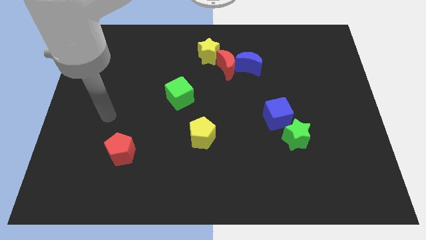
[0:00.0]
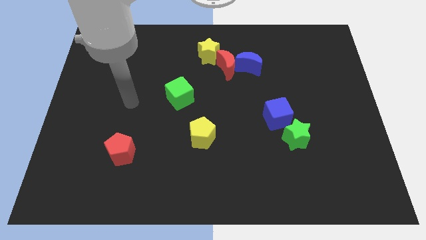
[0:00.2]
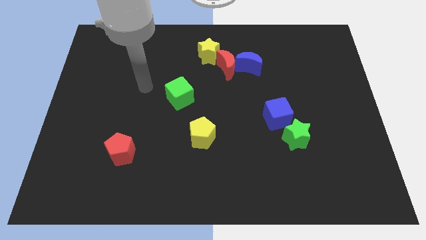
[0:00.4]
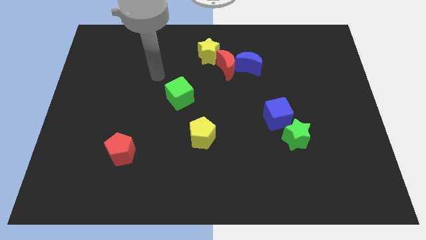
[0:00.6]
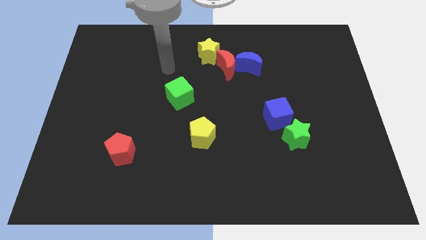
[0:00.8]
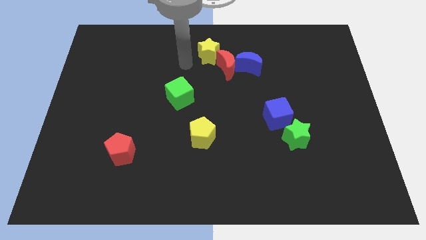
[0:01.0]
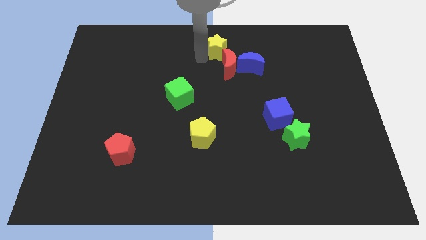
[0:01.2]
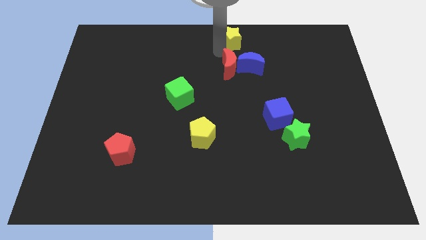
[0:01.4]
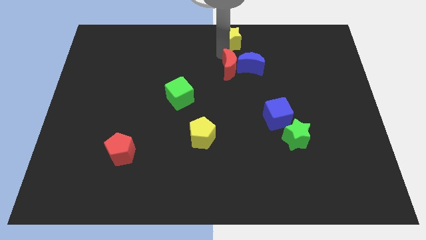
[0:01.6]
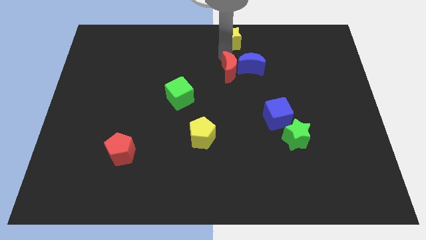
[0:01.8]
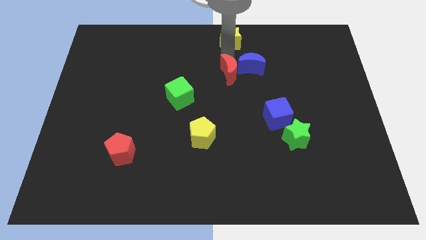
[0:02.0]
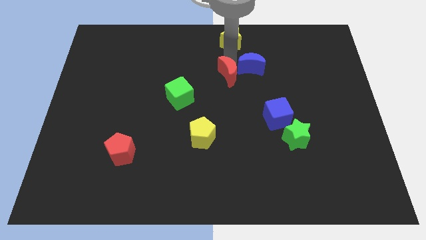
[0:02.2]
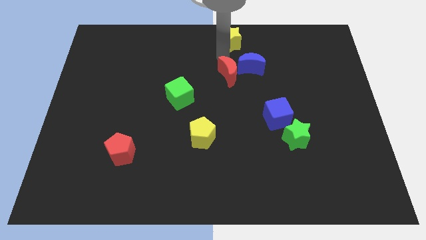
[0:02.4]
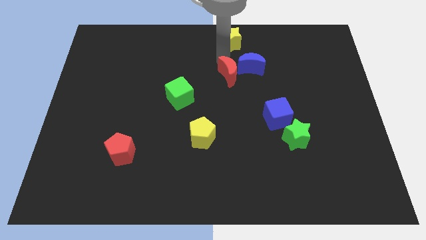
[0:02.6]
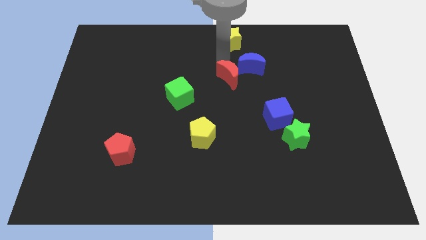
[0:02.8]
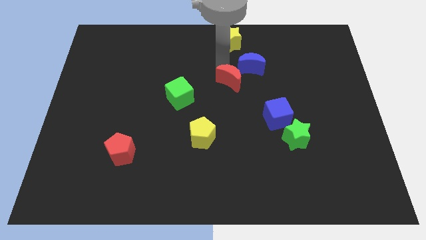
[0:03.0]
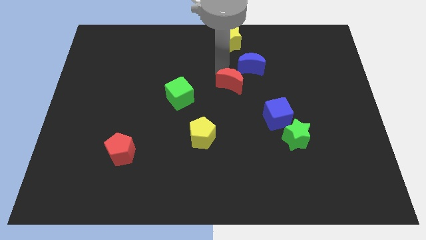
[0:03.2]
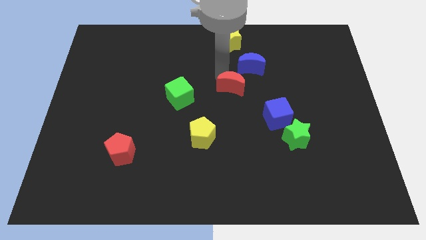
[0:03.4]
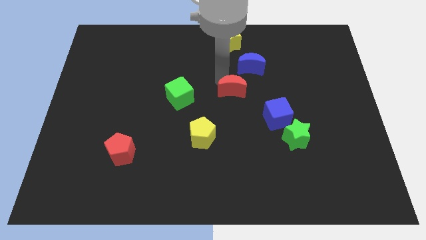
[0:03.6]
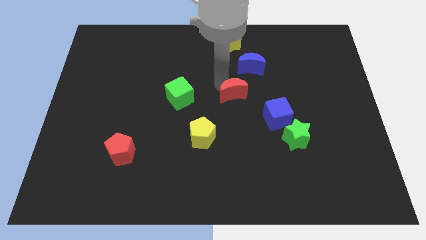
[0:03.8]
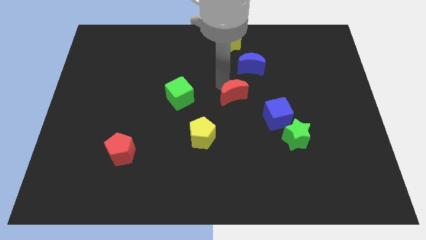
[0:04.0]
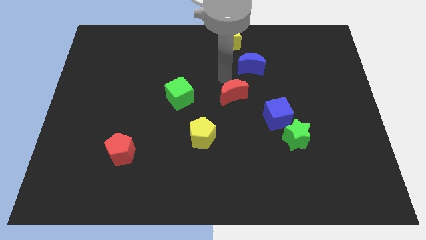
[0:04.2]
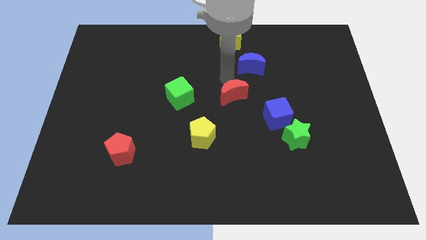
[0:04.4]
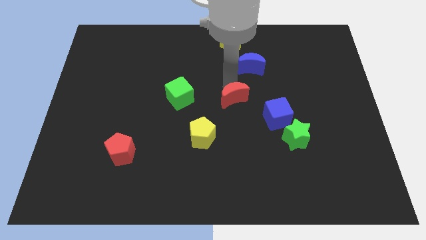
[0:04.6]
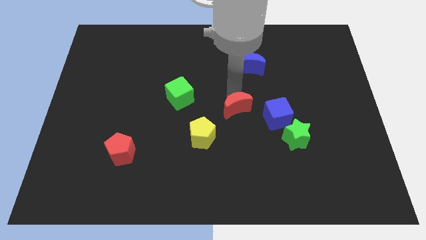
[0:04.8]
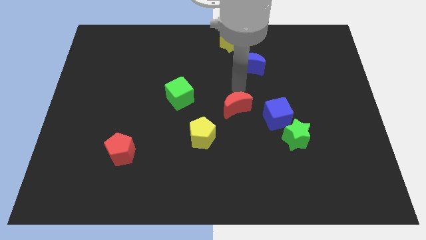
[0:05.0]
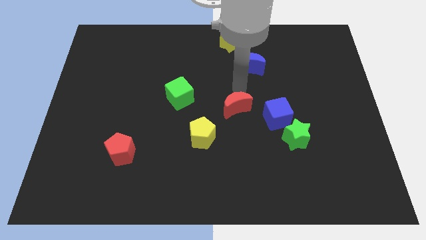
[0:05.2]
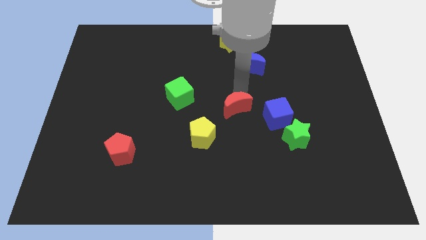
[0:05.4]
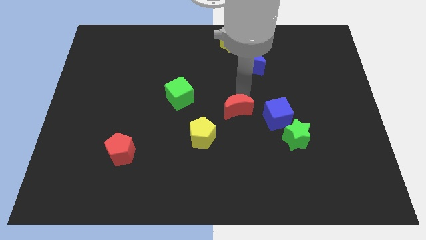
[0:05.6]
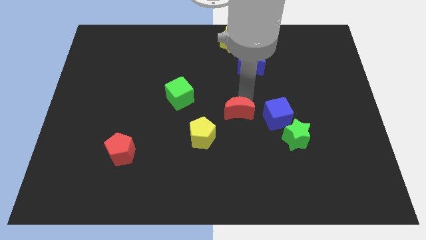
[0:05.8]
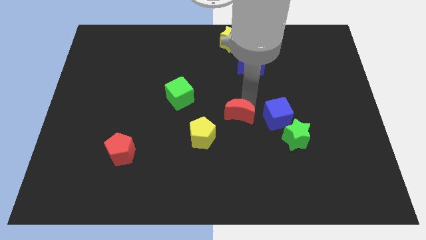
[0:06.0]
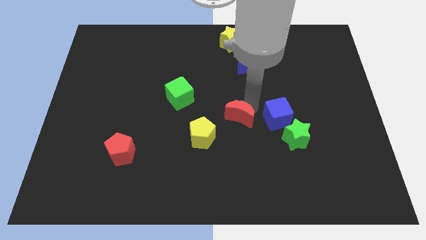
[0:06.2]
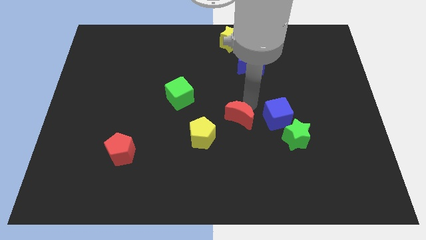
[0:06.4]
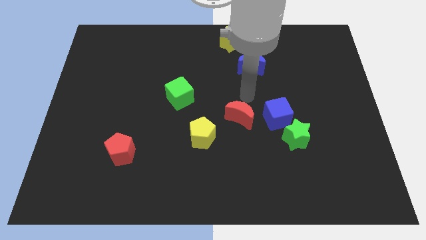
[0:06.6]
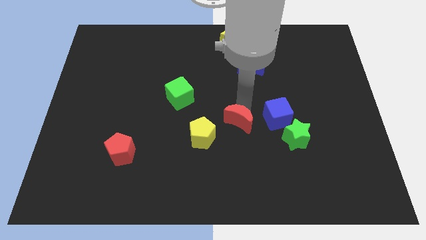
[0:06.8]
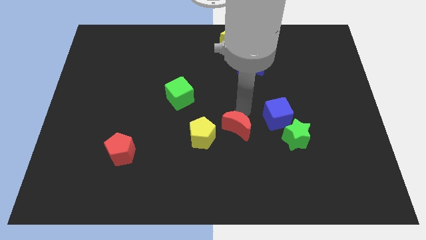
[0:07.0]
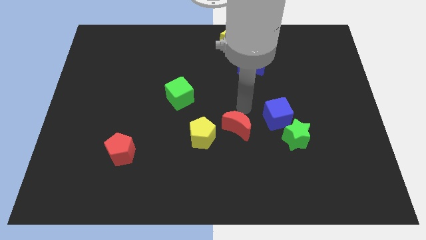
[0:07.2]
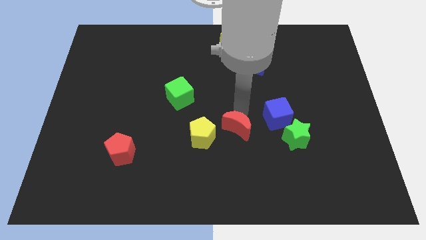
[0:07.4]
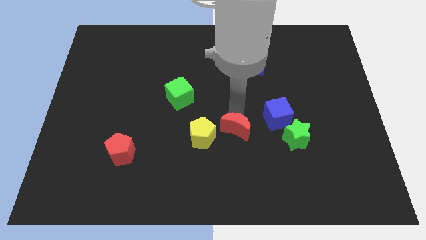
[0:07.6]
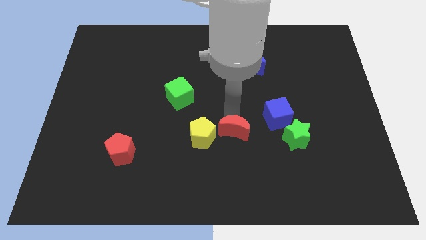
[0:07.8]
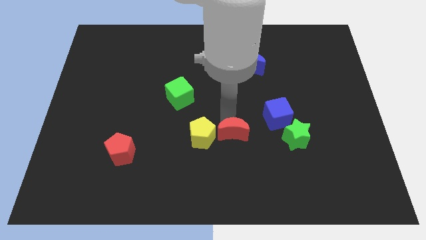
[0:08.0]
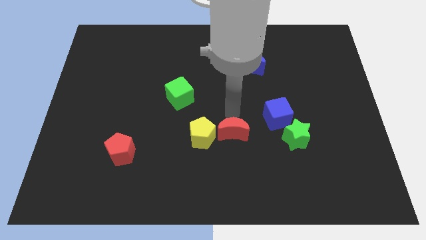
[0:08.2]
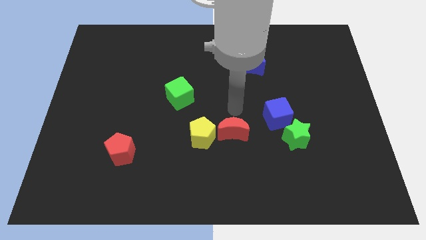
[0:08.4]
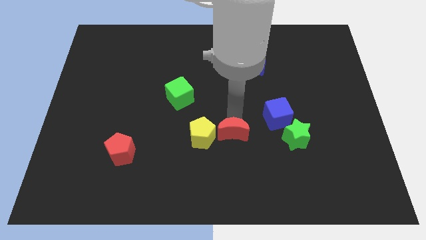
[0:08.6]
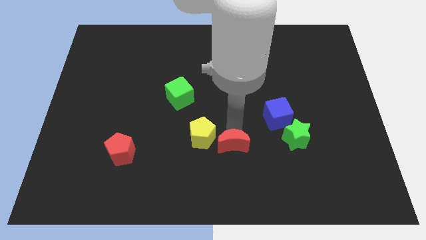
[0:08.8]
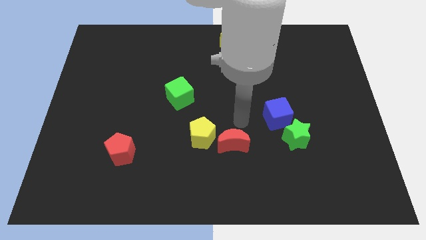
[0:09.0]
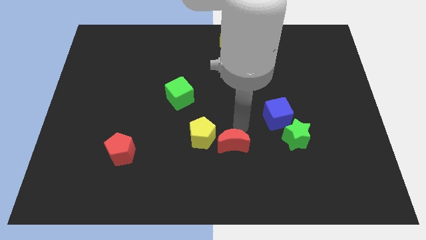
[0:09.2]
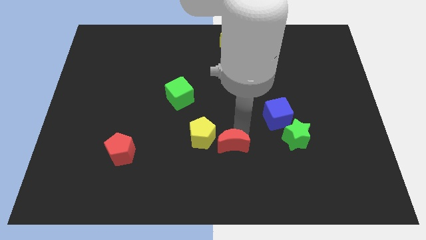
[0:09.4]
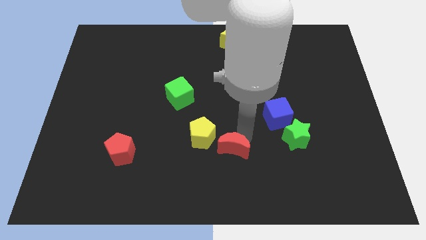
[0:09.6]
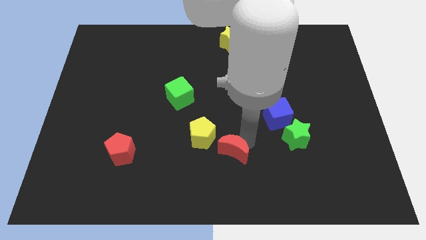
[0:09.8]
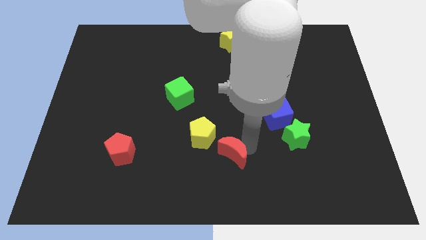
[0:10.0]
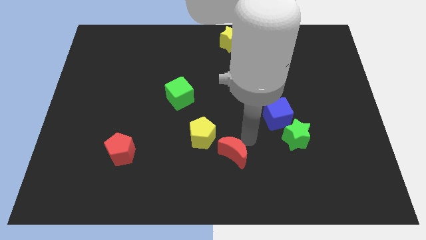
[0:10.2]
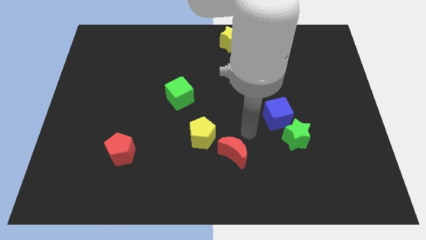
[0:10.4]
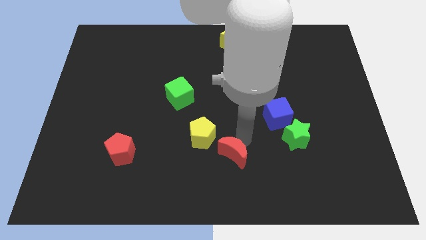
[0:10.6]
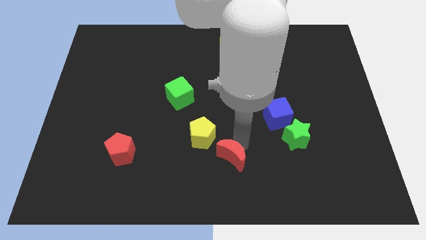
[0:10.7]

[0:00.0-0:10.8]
push the red moon to the bottom

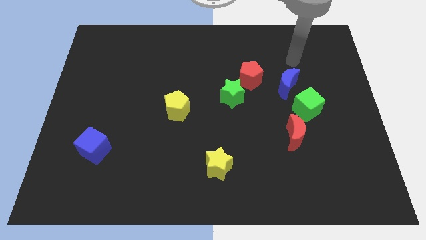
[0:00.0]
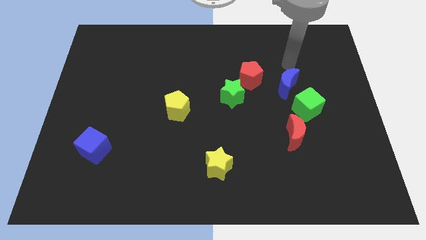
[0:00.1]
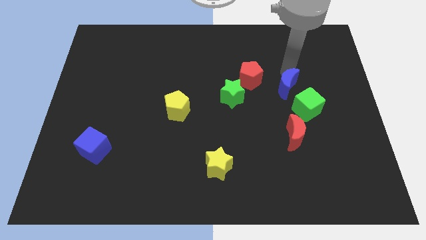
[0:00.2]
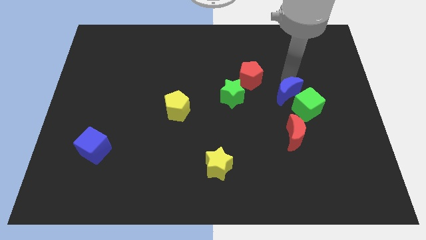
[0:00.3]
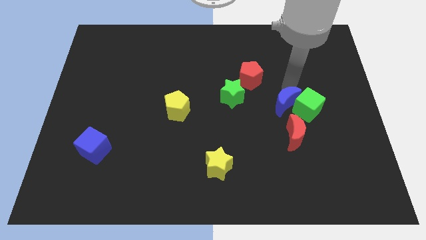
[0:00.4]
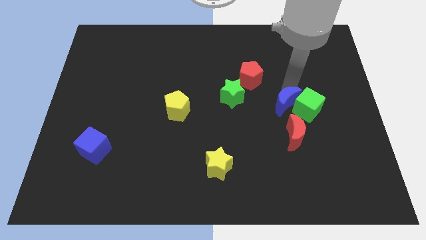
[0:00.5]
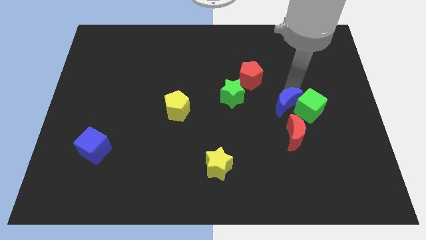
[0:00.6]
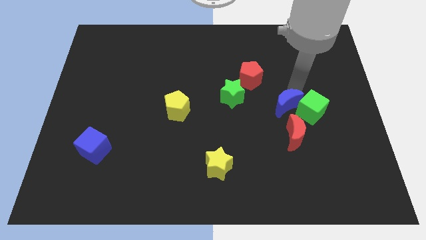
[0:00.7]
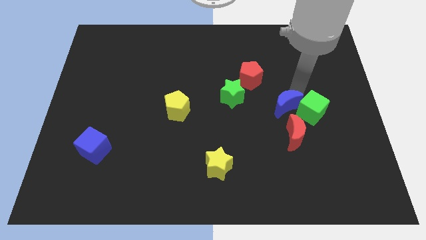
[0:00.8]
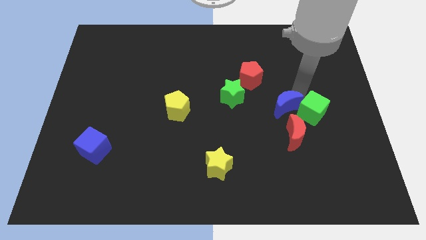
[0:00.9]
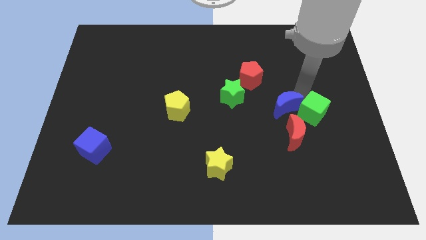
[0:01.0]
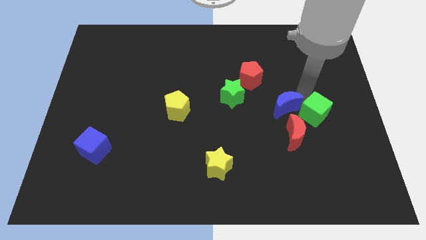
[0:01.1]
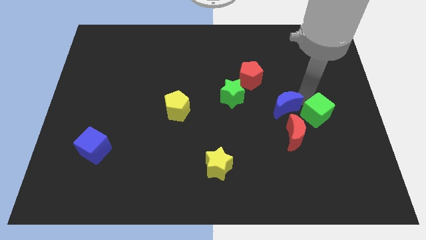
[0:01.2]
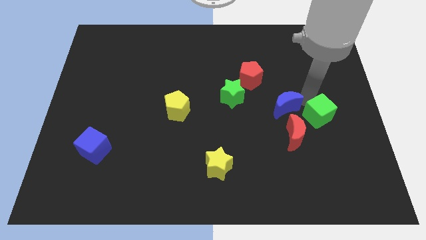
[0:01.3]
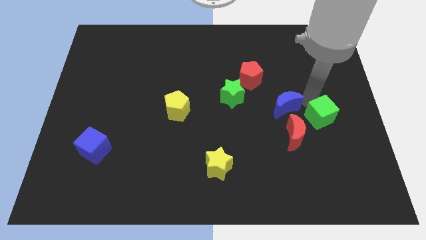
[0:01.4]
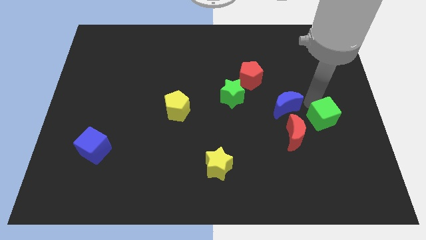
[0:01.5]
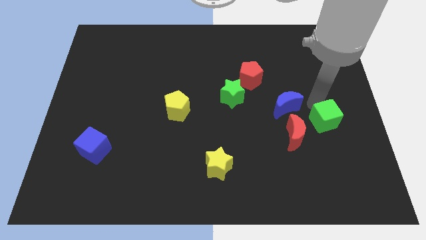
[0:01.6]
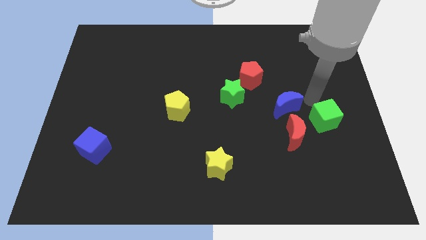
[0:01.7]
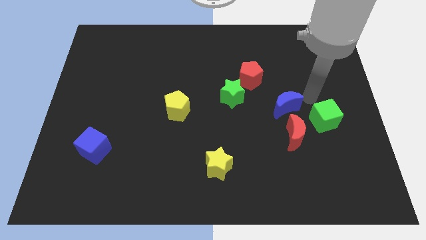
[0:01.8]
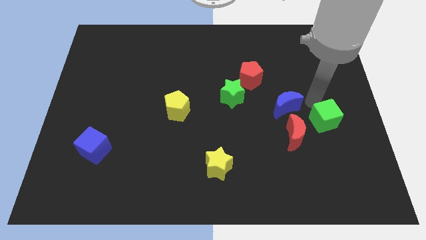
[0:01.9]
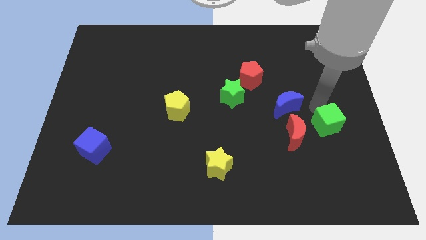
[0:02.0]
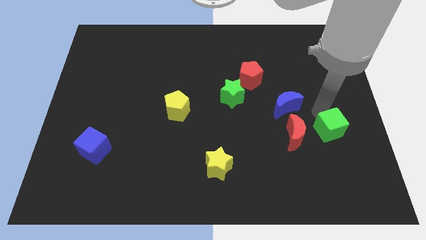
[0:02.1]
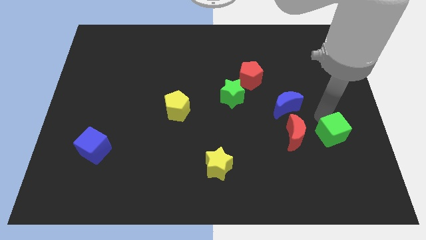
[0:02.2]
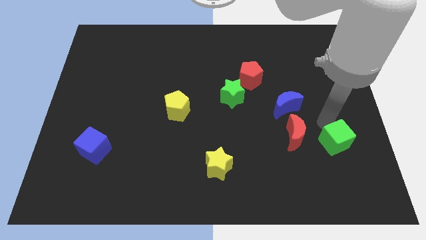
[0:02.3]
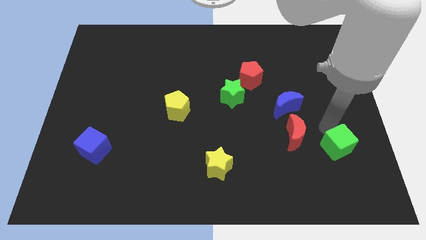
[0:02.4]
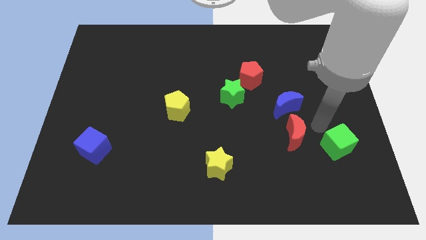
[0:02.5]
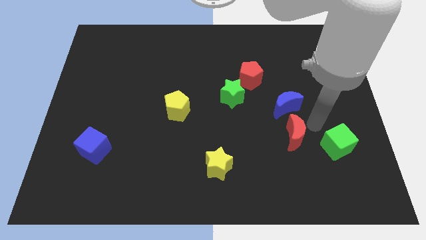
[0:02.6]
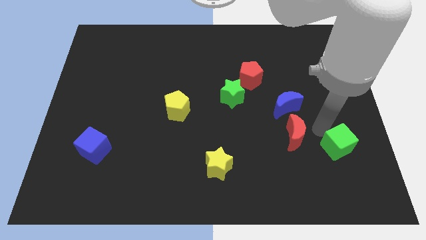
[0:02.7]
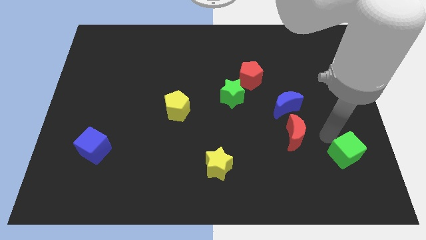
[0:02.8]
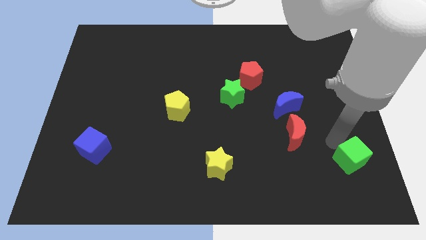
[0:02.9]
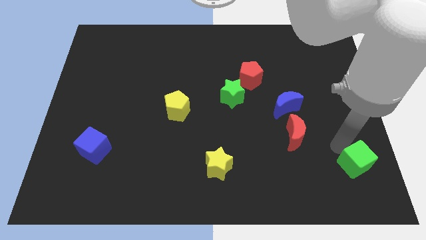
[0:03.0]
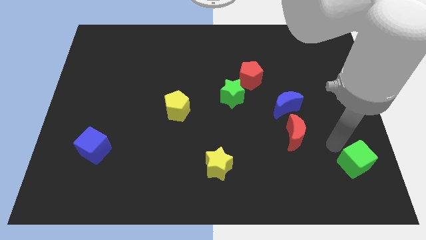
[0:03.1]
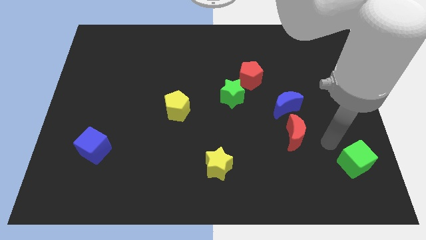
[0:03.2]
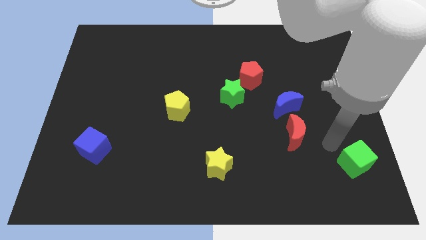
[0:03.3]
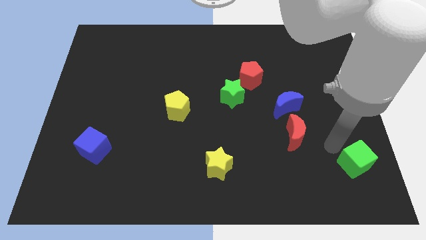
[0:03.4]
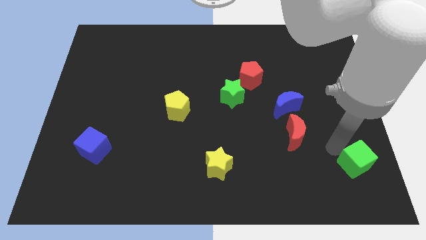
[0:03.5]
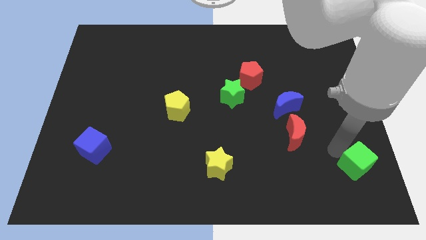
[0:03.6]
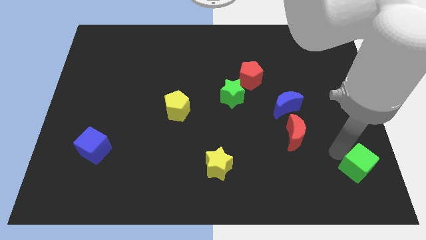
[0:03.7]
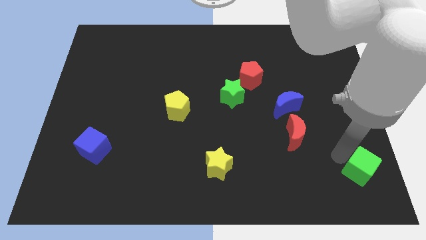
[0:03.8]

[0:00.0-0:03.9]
push the green cube to the bottom right of the board
